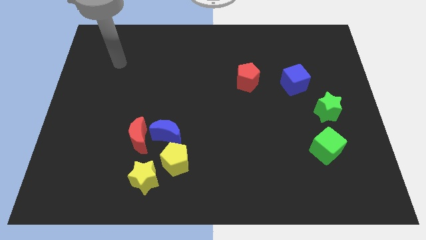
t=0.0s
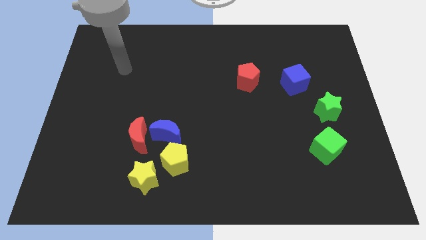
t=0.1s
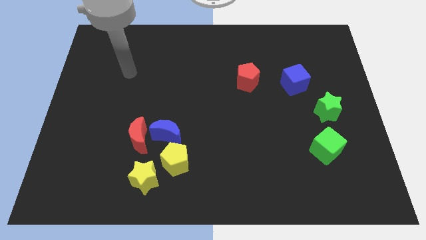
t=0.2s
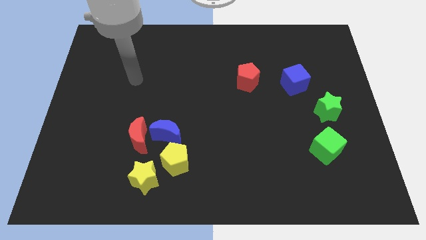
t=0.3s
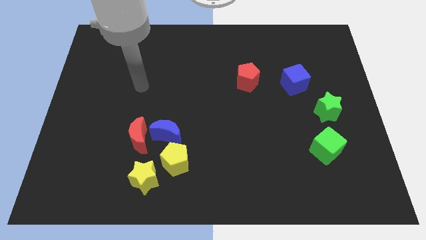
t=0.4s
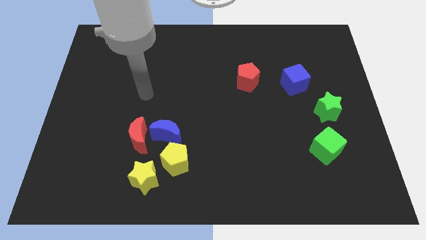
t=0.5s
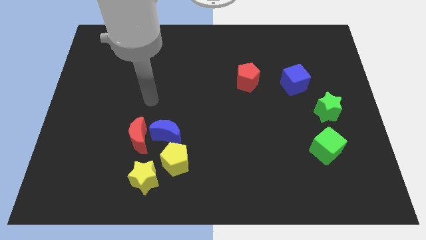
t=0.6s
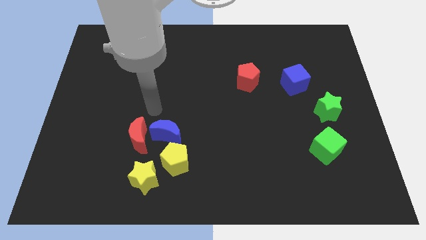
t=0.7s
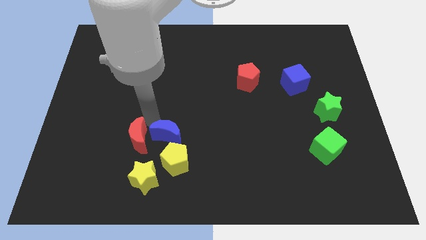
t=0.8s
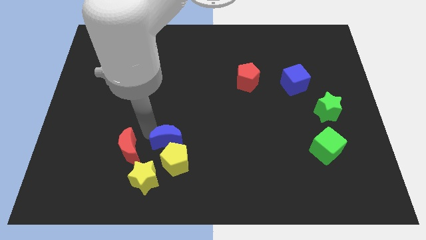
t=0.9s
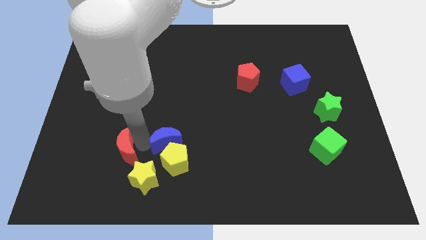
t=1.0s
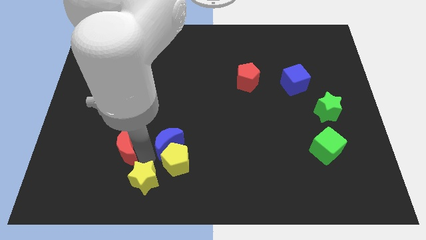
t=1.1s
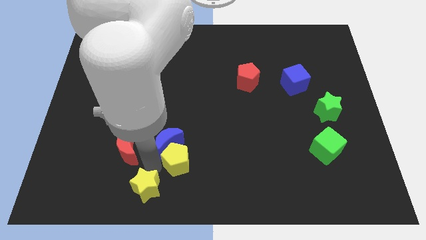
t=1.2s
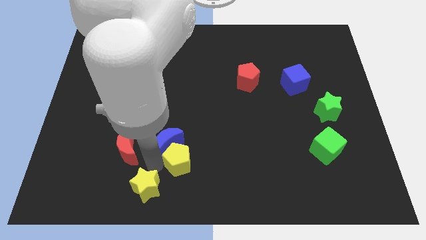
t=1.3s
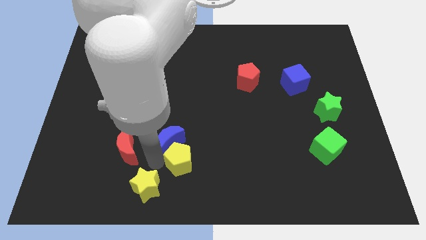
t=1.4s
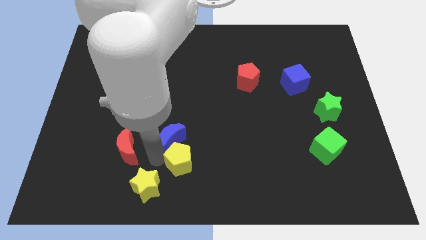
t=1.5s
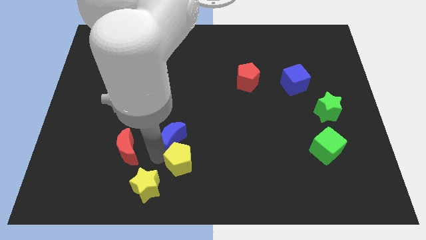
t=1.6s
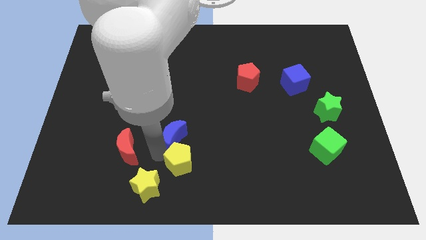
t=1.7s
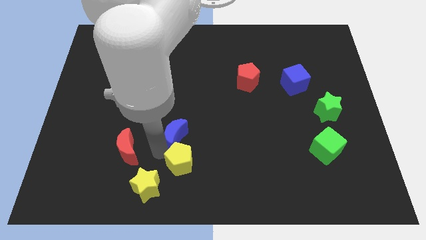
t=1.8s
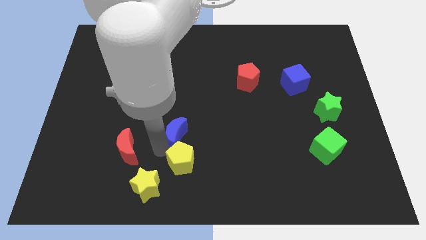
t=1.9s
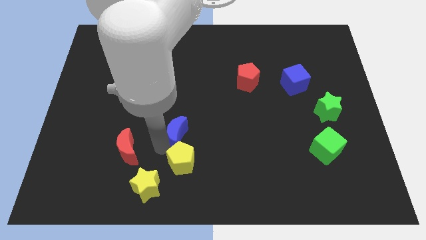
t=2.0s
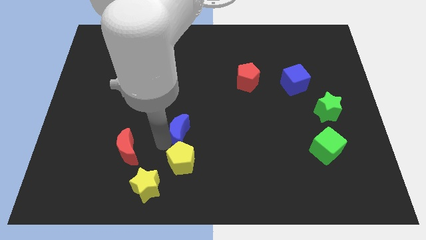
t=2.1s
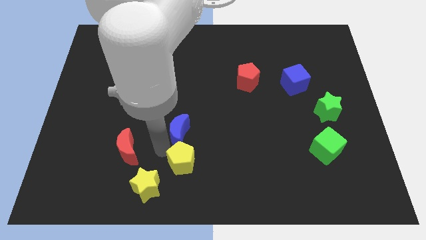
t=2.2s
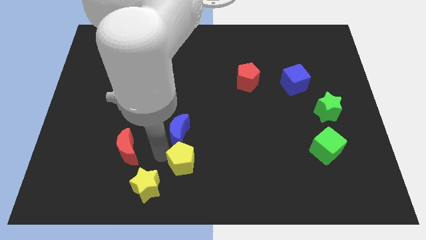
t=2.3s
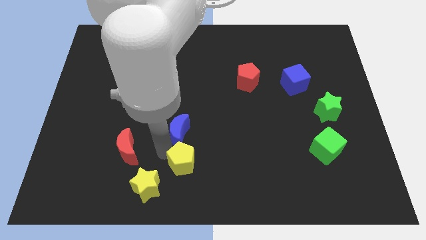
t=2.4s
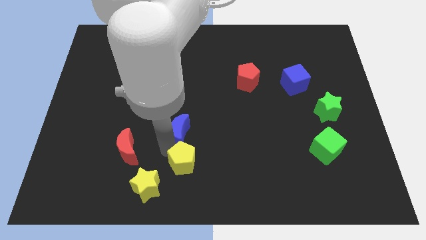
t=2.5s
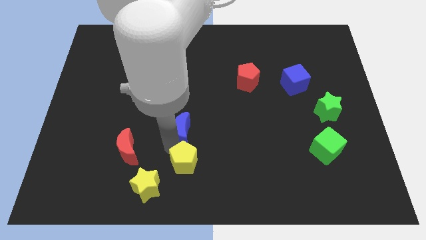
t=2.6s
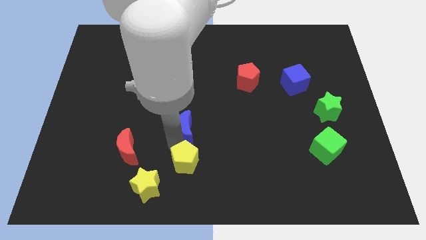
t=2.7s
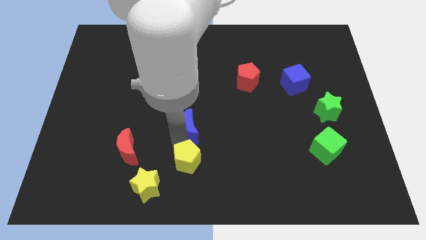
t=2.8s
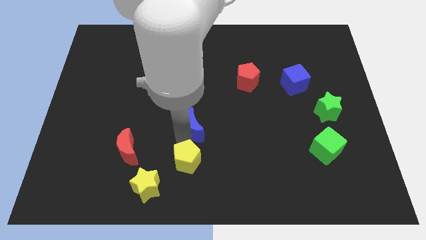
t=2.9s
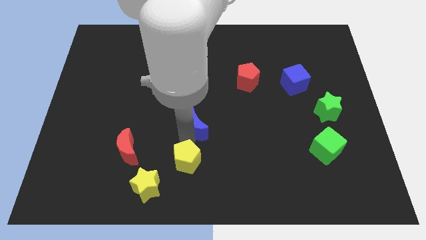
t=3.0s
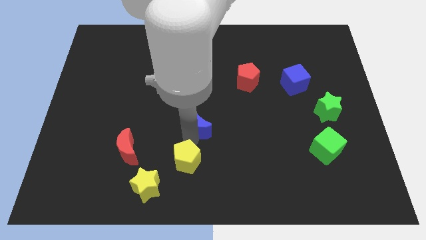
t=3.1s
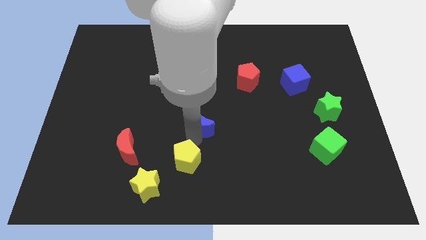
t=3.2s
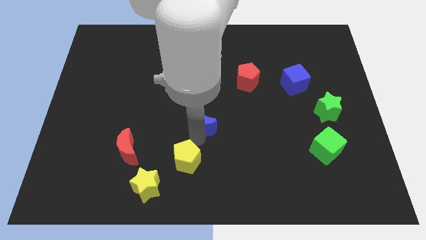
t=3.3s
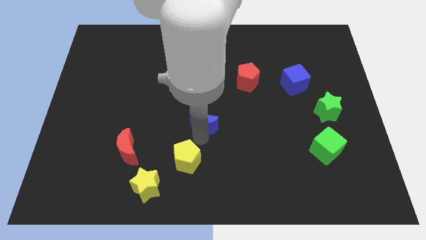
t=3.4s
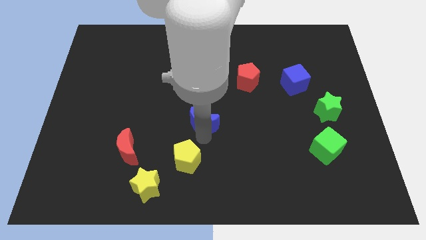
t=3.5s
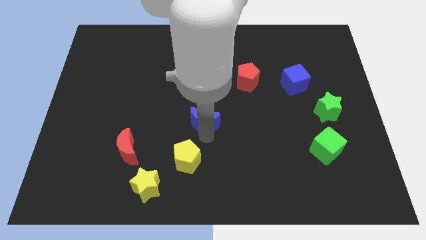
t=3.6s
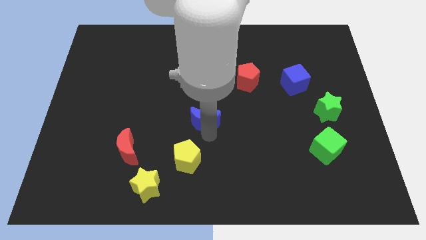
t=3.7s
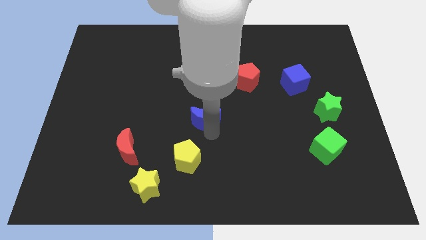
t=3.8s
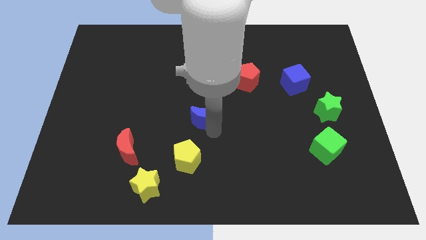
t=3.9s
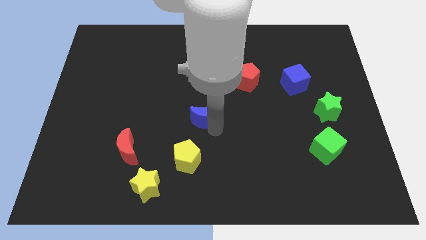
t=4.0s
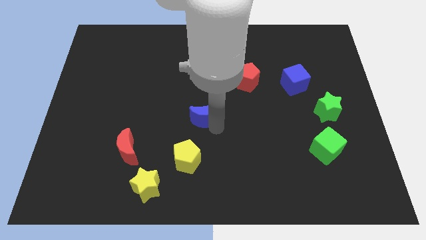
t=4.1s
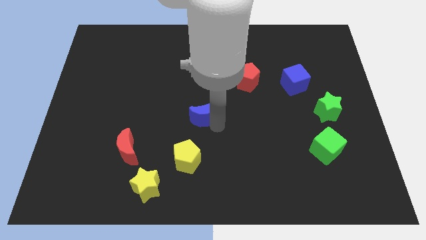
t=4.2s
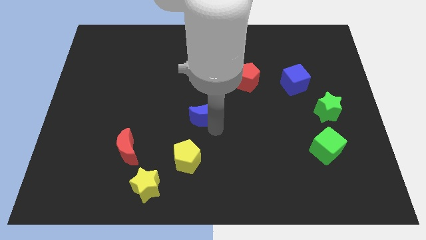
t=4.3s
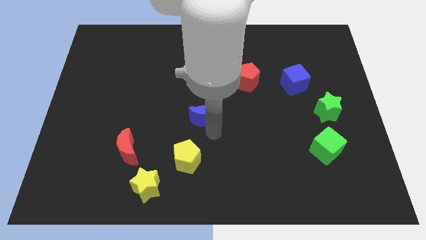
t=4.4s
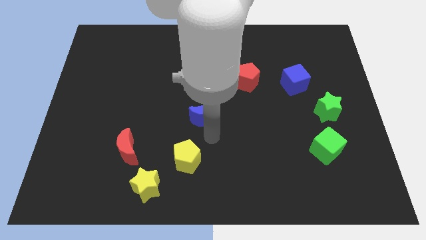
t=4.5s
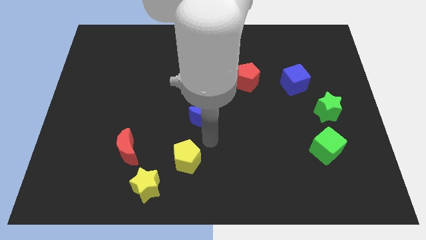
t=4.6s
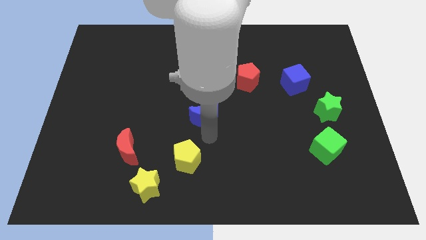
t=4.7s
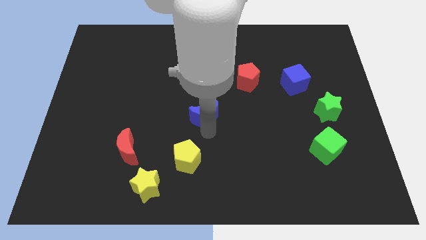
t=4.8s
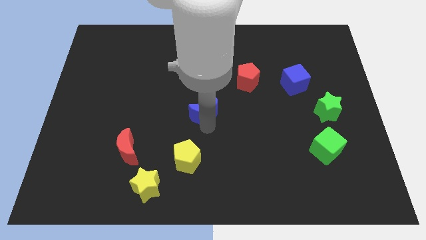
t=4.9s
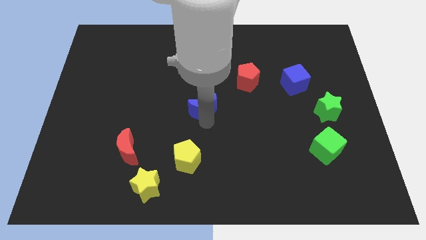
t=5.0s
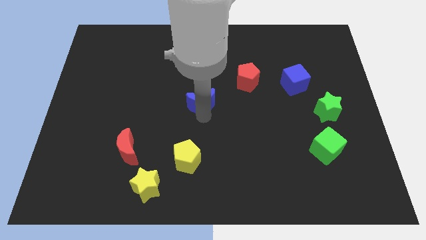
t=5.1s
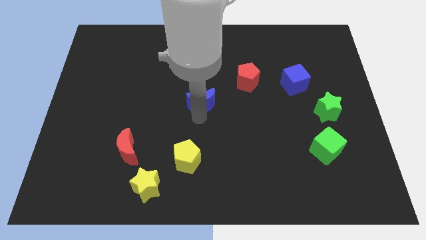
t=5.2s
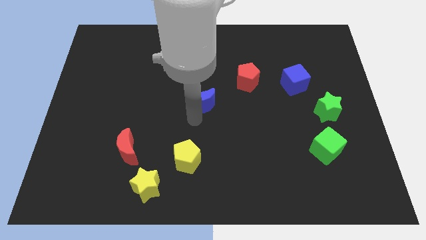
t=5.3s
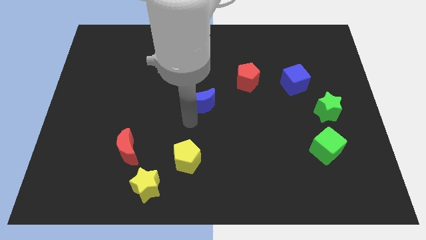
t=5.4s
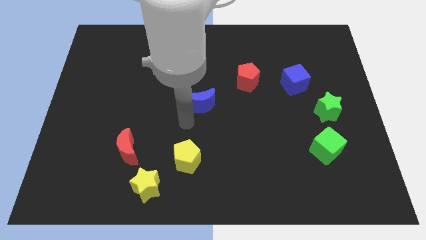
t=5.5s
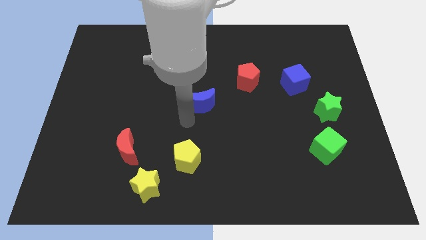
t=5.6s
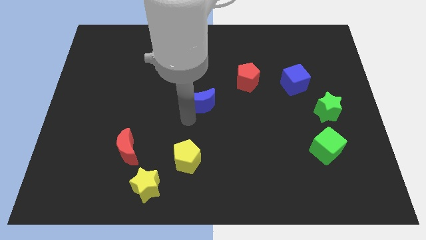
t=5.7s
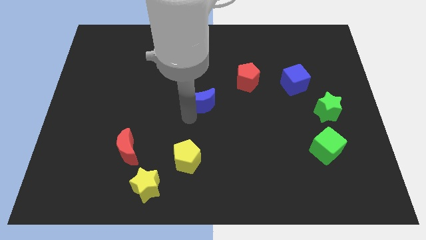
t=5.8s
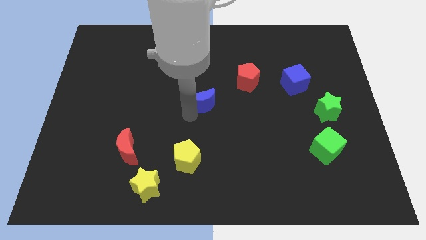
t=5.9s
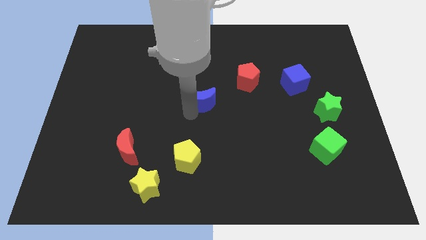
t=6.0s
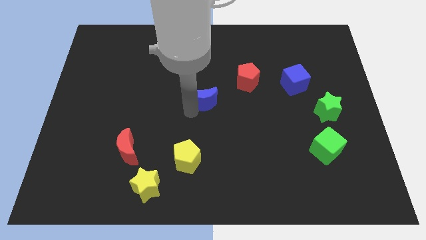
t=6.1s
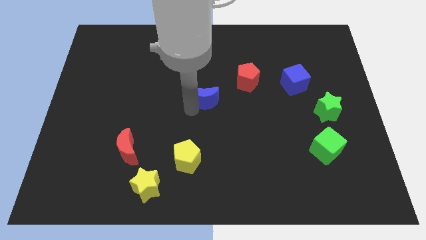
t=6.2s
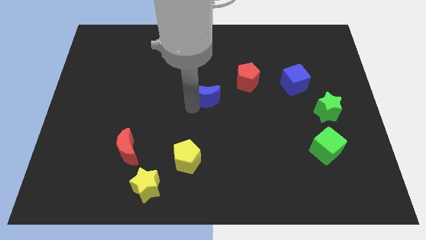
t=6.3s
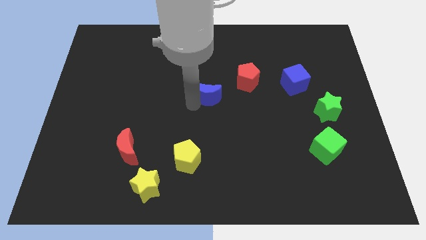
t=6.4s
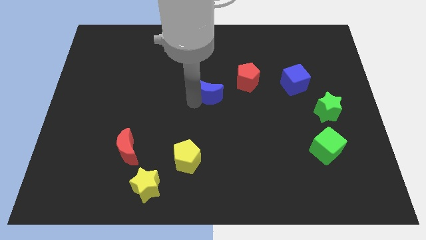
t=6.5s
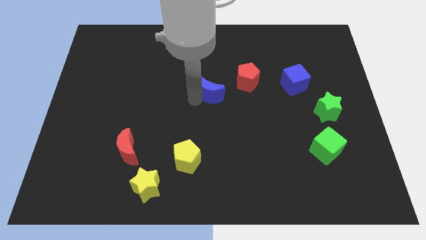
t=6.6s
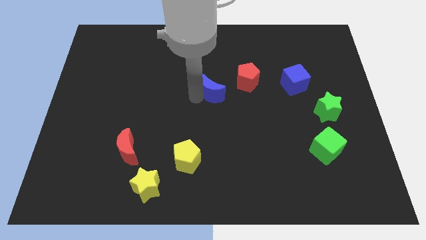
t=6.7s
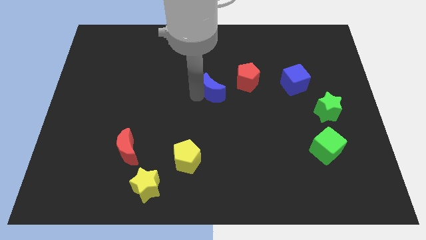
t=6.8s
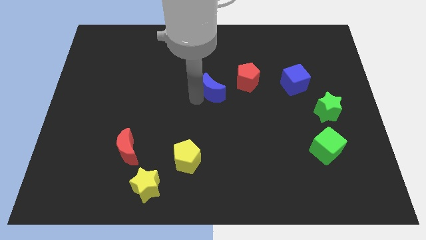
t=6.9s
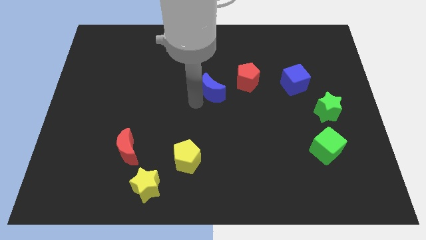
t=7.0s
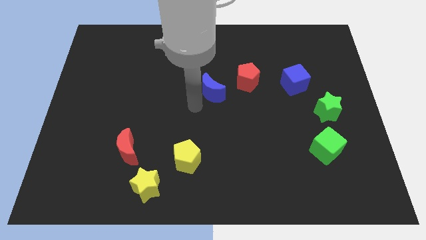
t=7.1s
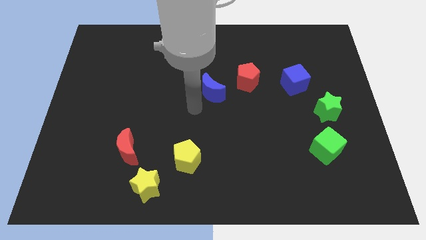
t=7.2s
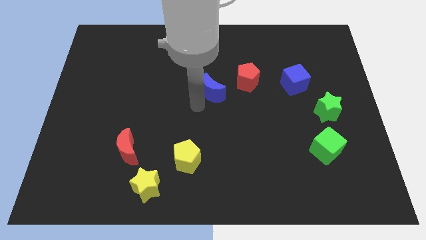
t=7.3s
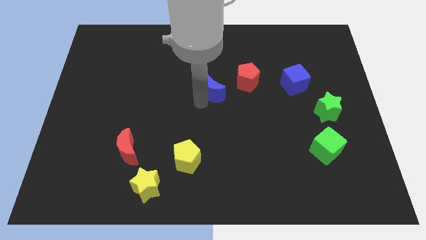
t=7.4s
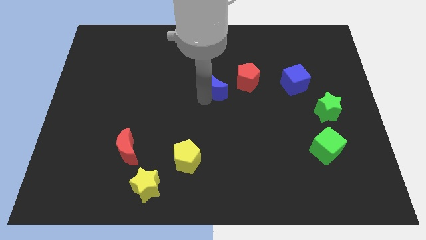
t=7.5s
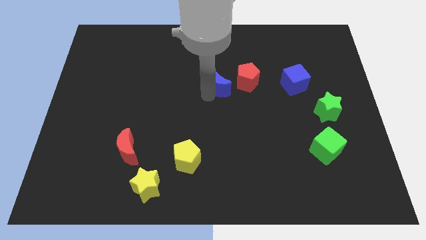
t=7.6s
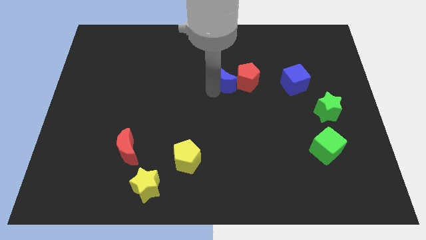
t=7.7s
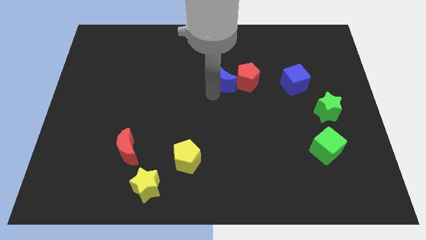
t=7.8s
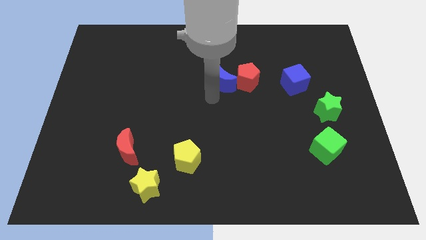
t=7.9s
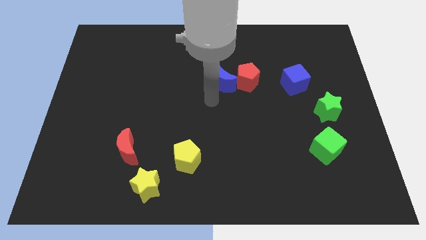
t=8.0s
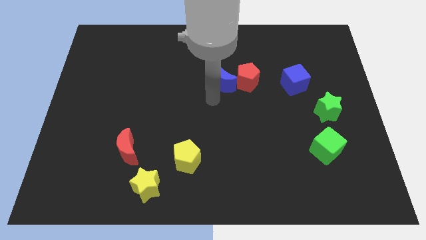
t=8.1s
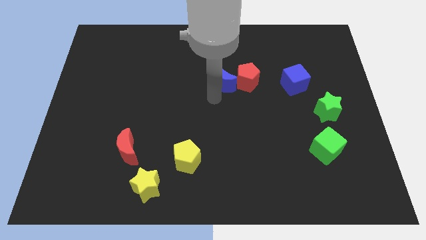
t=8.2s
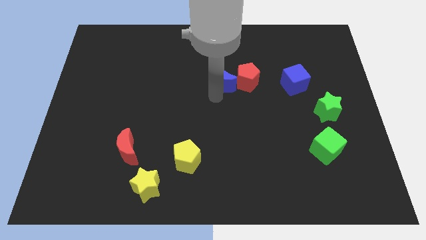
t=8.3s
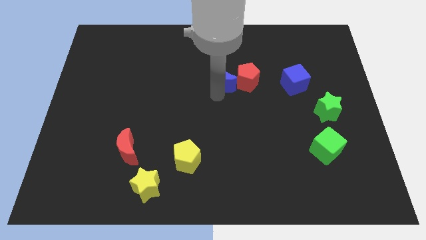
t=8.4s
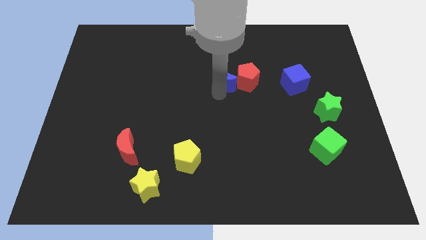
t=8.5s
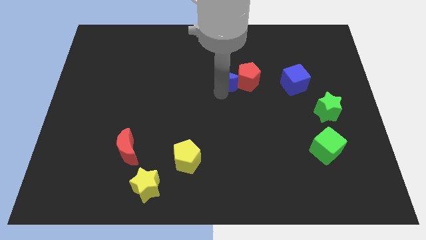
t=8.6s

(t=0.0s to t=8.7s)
push the blue moon diagonally up and to the right
